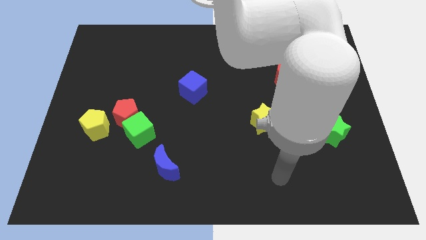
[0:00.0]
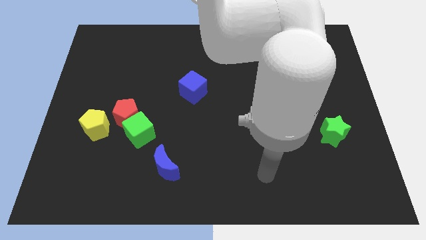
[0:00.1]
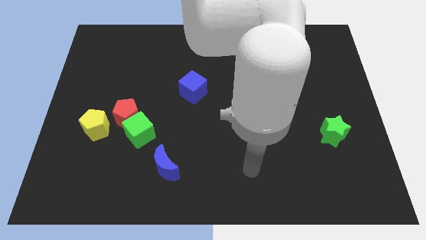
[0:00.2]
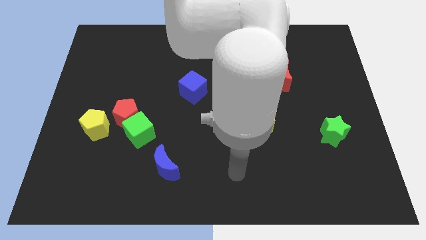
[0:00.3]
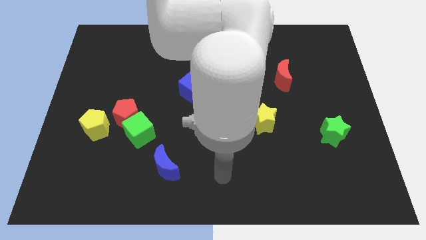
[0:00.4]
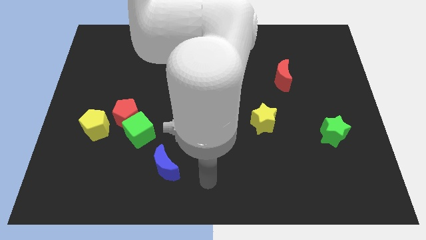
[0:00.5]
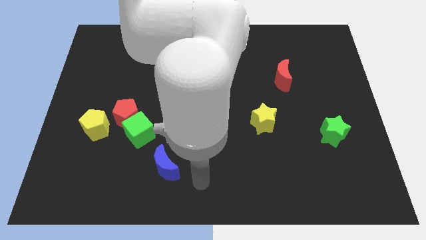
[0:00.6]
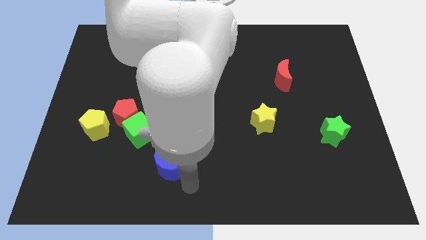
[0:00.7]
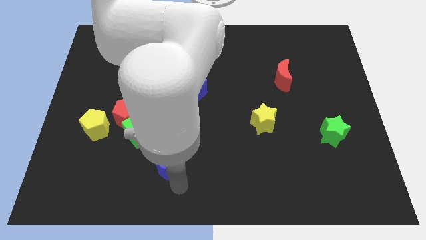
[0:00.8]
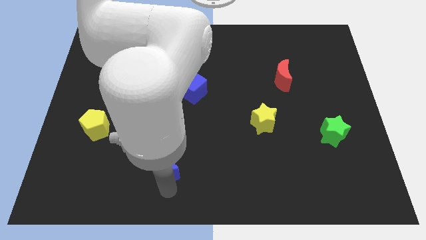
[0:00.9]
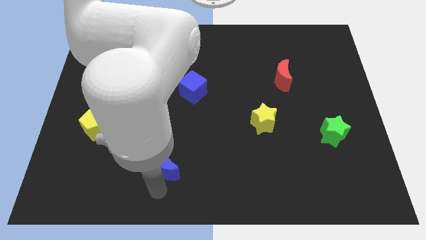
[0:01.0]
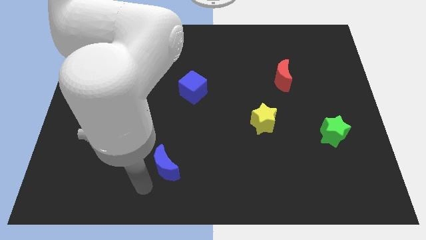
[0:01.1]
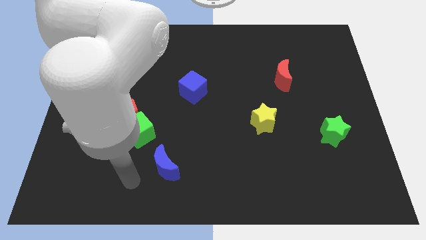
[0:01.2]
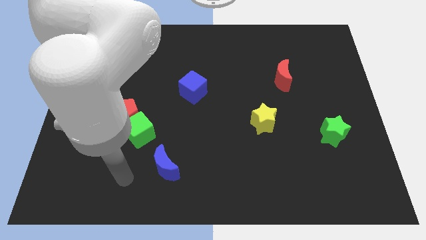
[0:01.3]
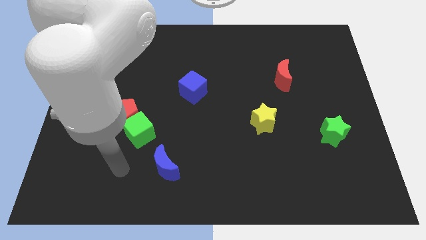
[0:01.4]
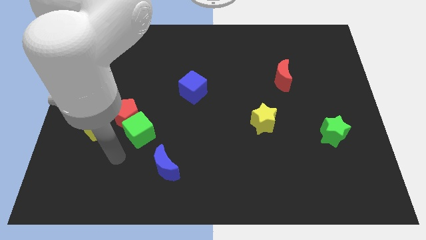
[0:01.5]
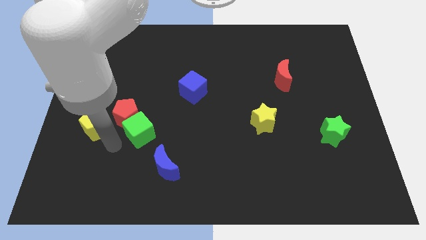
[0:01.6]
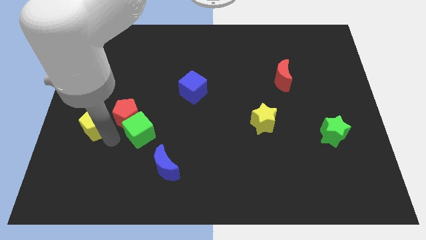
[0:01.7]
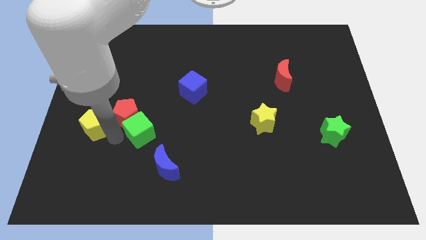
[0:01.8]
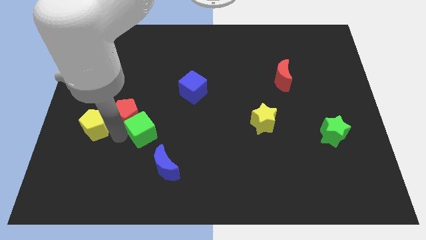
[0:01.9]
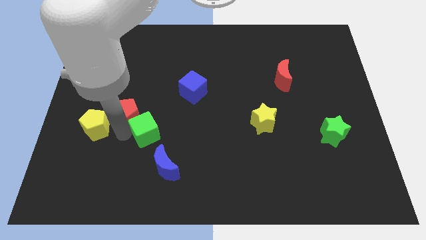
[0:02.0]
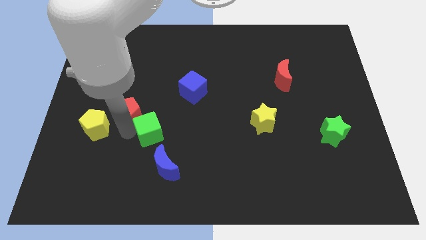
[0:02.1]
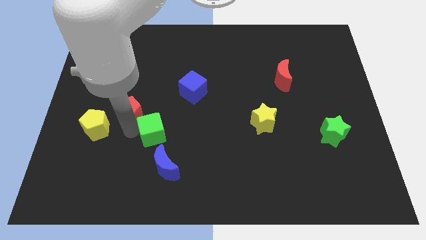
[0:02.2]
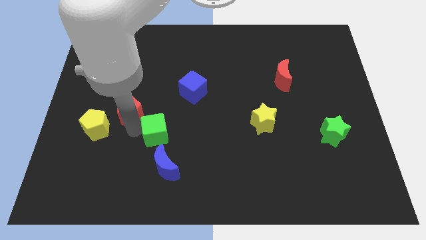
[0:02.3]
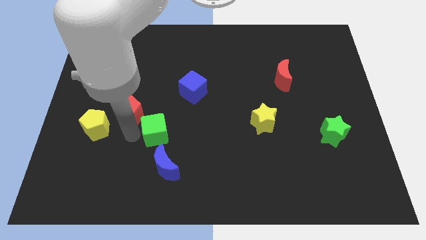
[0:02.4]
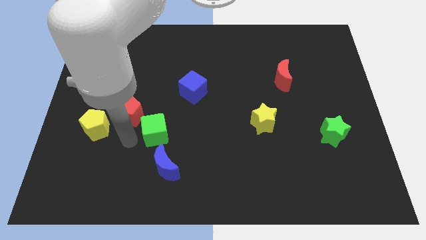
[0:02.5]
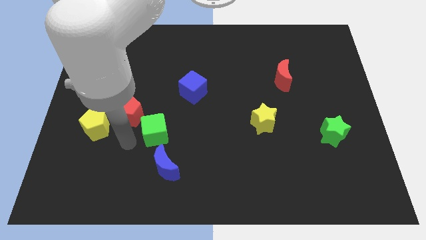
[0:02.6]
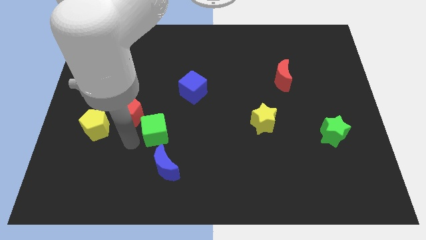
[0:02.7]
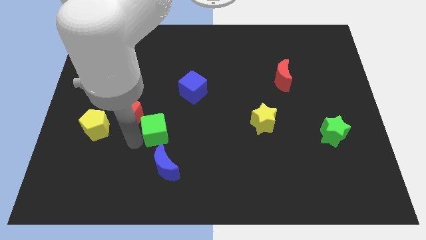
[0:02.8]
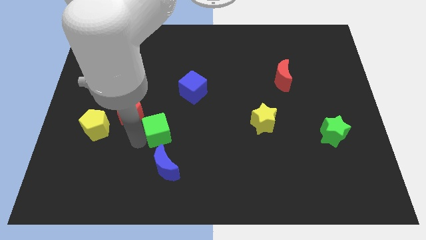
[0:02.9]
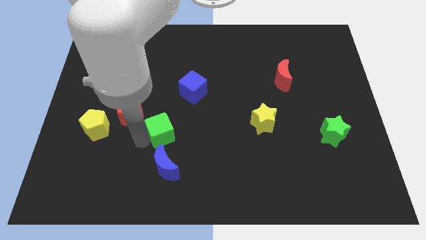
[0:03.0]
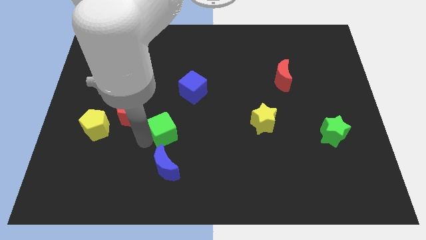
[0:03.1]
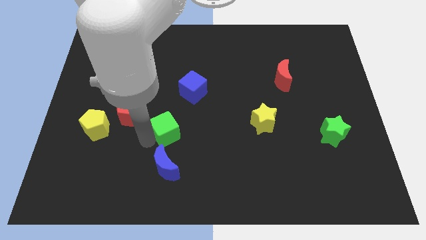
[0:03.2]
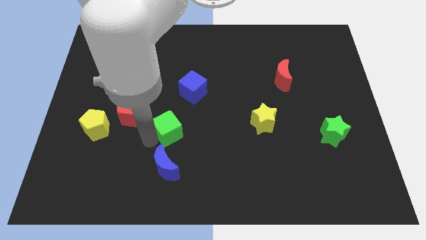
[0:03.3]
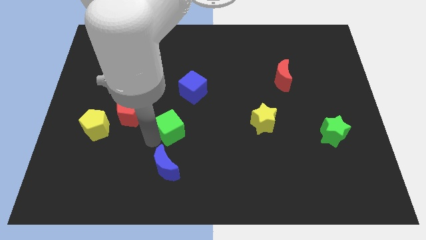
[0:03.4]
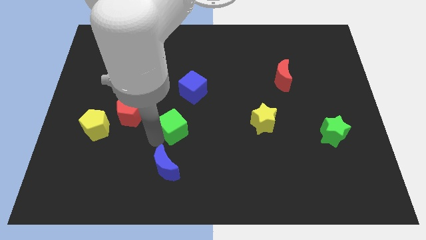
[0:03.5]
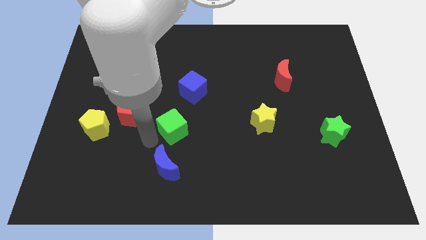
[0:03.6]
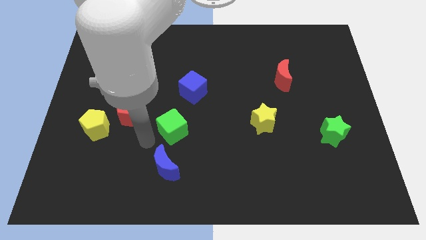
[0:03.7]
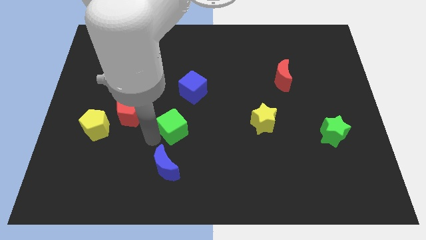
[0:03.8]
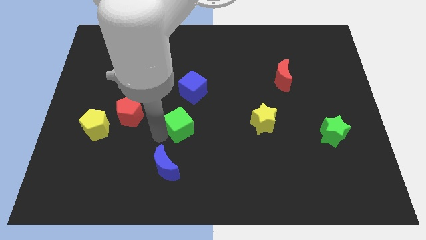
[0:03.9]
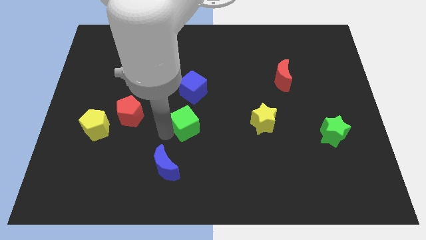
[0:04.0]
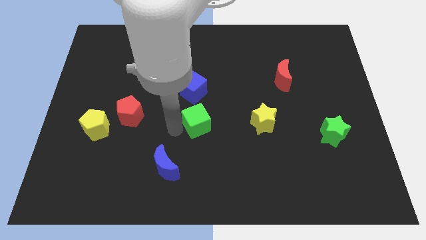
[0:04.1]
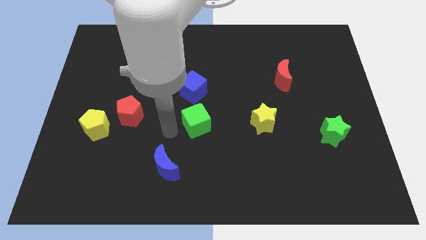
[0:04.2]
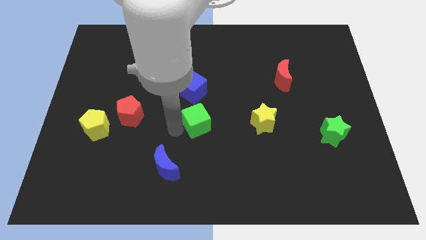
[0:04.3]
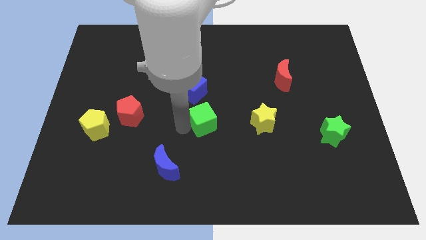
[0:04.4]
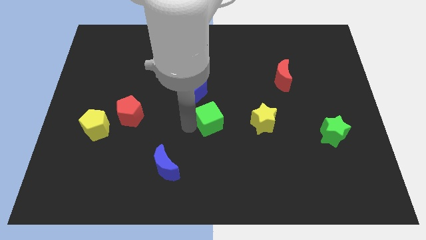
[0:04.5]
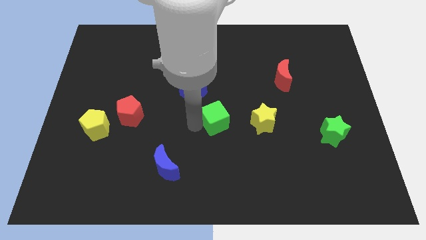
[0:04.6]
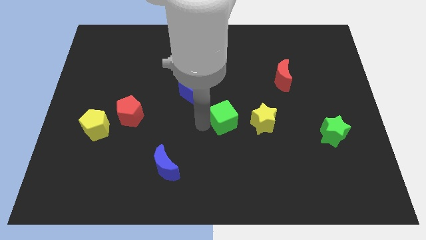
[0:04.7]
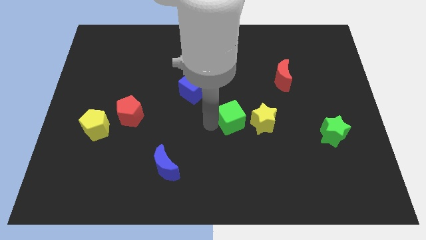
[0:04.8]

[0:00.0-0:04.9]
put the green cube to the top left of the yellow star

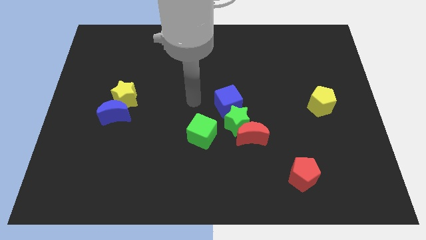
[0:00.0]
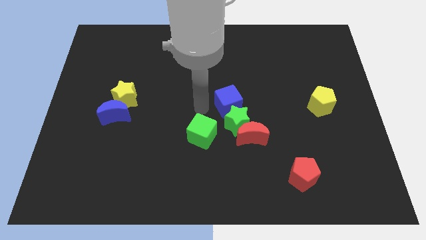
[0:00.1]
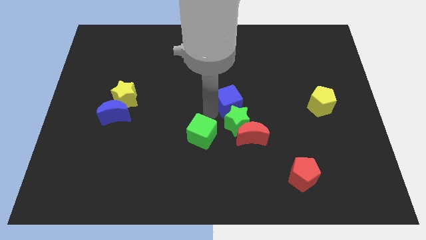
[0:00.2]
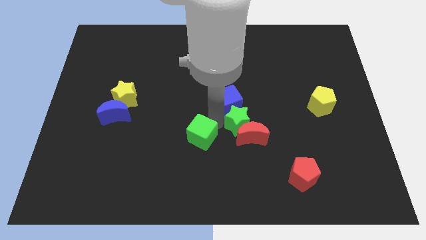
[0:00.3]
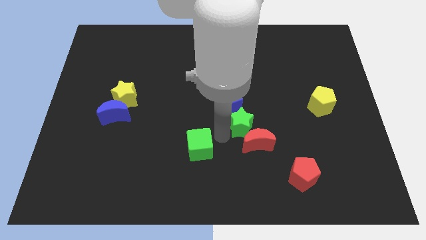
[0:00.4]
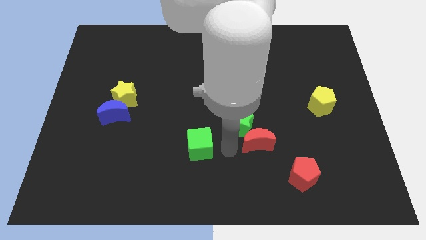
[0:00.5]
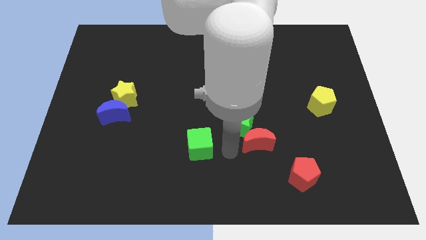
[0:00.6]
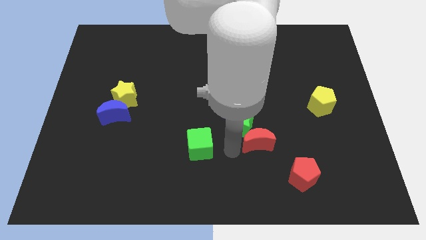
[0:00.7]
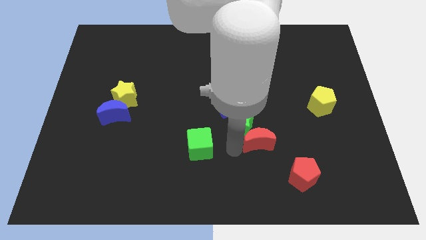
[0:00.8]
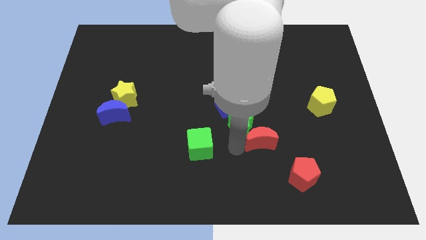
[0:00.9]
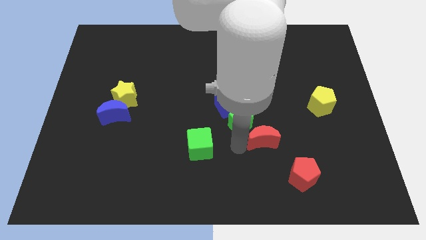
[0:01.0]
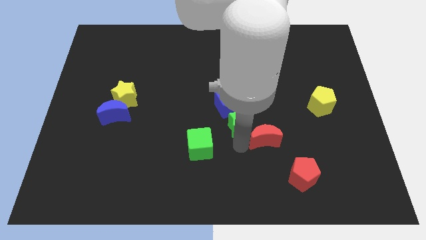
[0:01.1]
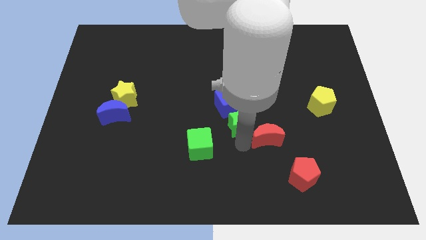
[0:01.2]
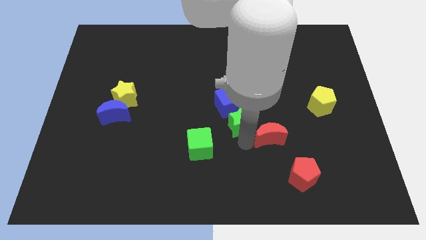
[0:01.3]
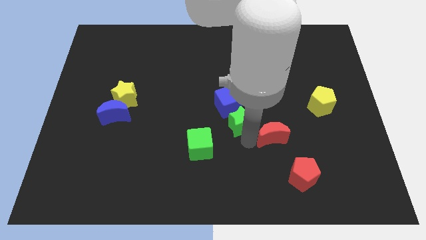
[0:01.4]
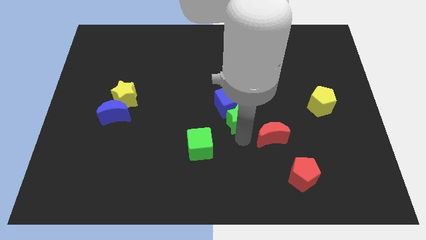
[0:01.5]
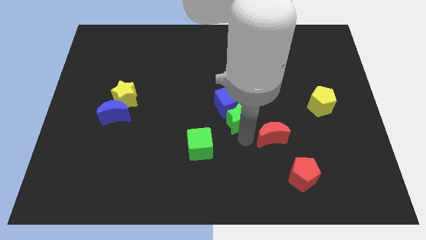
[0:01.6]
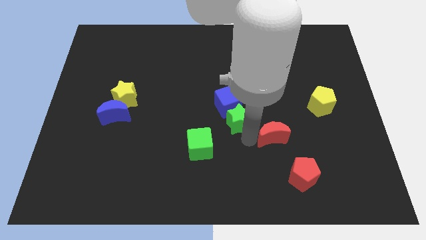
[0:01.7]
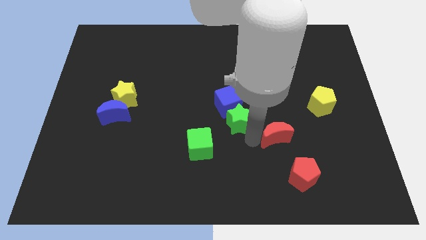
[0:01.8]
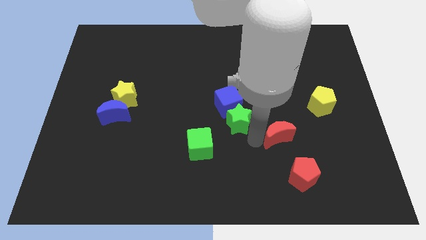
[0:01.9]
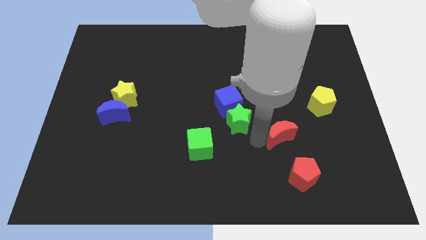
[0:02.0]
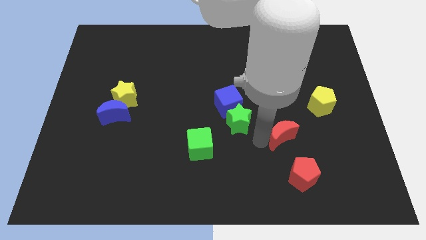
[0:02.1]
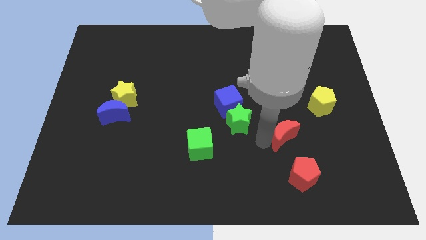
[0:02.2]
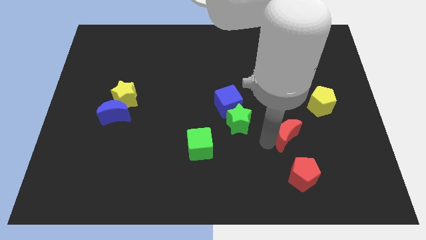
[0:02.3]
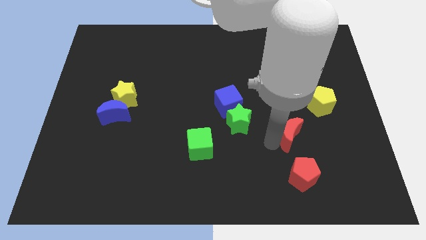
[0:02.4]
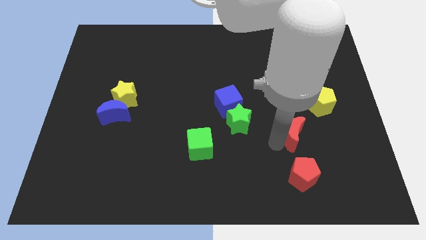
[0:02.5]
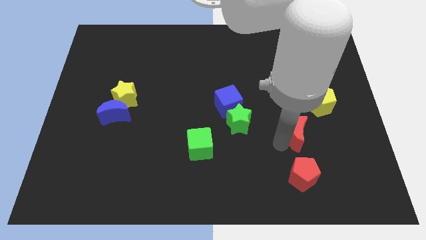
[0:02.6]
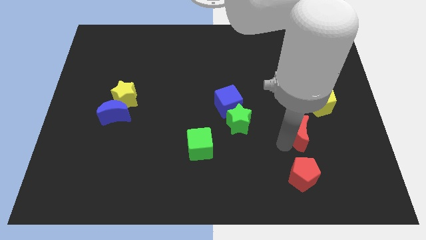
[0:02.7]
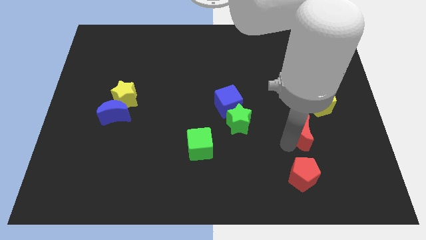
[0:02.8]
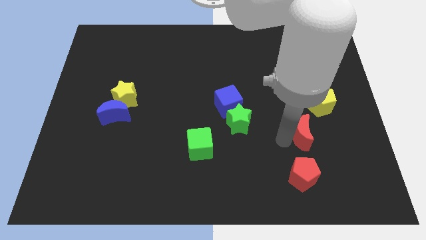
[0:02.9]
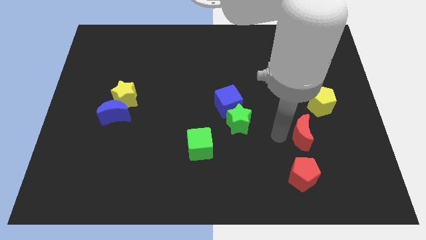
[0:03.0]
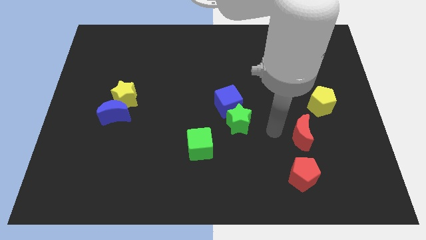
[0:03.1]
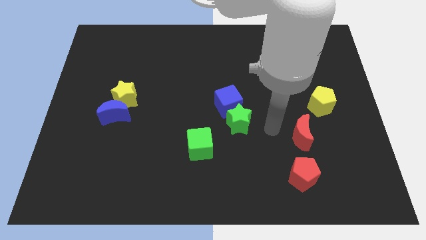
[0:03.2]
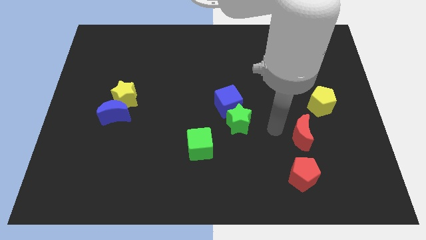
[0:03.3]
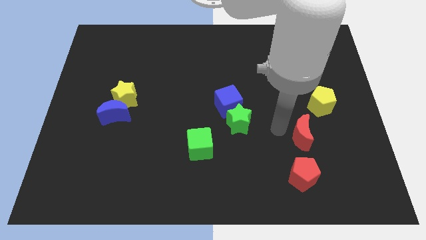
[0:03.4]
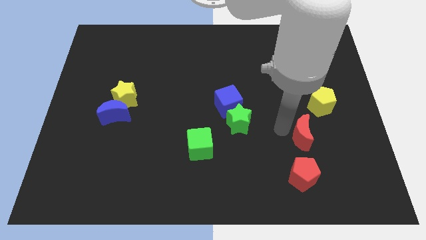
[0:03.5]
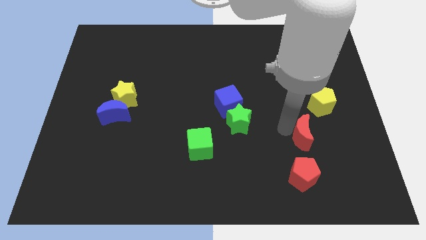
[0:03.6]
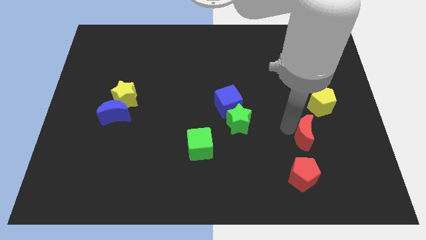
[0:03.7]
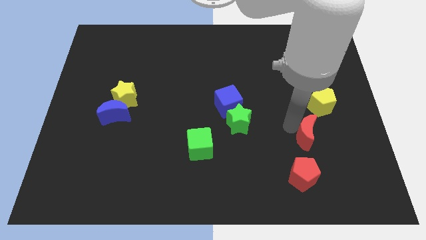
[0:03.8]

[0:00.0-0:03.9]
push the red moon to the bottom side of the yellow pentagon
